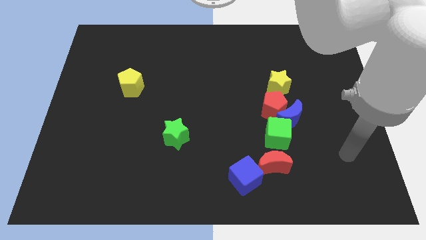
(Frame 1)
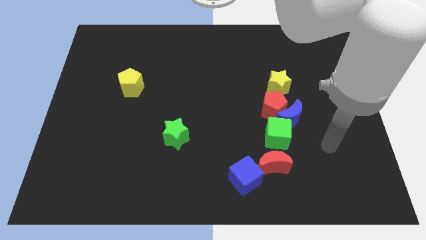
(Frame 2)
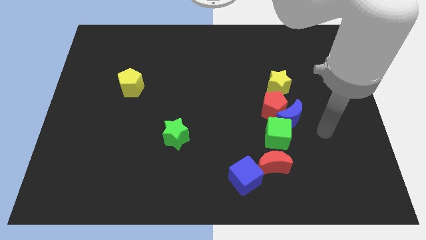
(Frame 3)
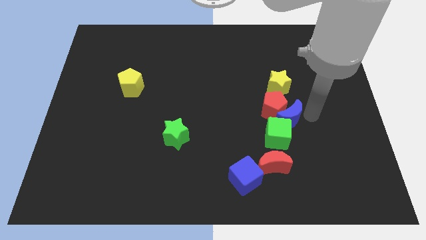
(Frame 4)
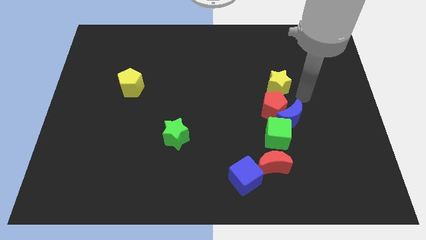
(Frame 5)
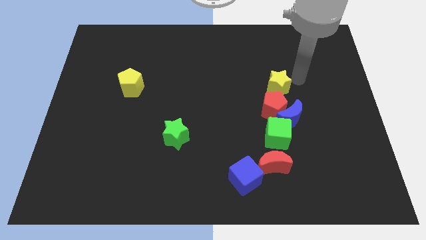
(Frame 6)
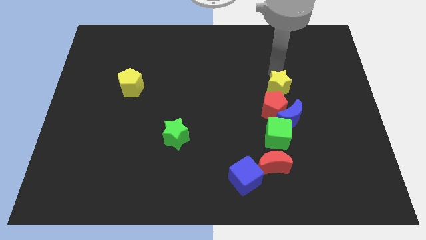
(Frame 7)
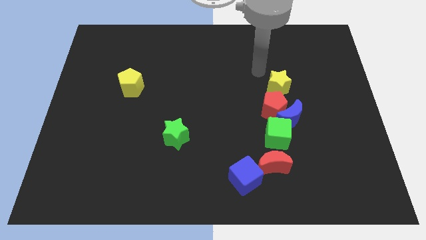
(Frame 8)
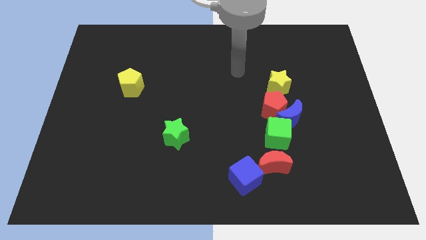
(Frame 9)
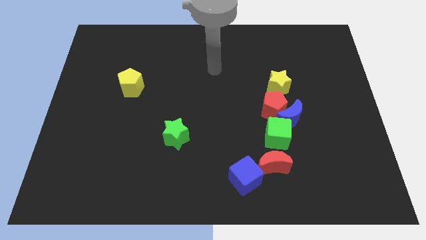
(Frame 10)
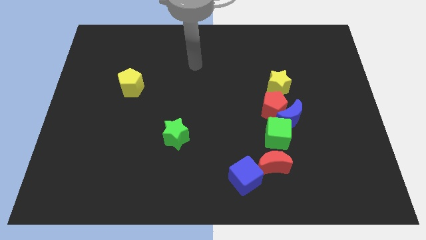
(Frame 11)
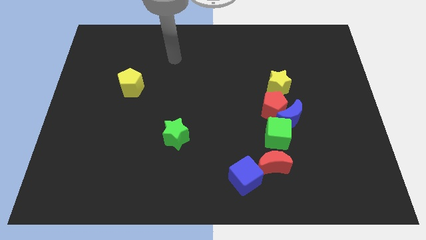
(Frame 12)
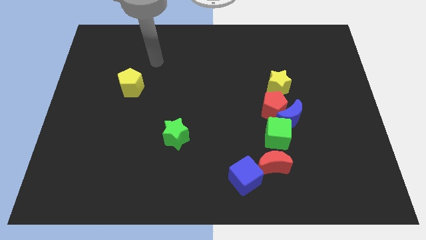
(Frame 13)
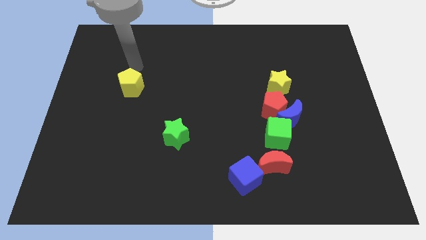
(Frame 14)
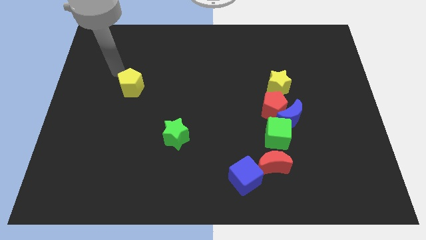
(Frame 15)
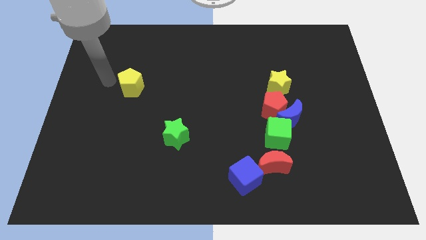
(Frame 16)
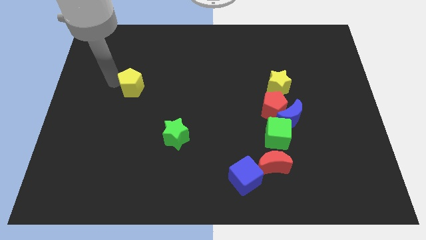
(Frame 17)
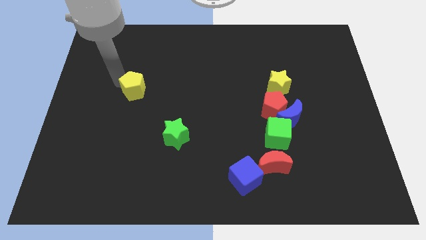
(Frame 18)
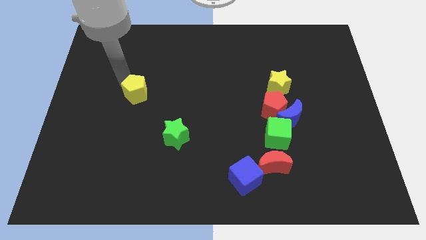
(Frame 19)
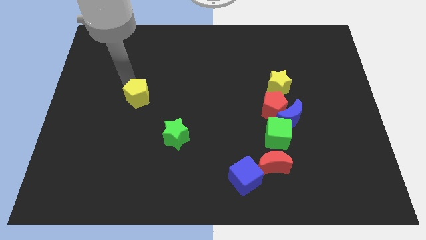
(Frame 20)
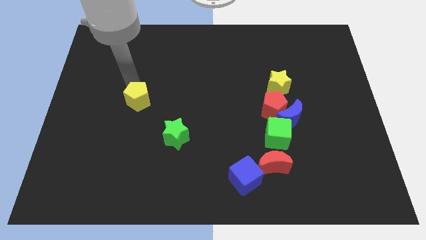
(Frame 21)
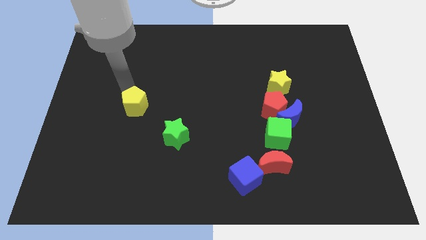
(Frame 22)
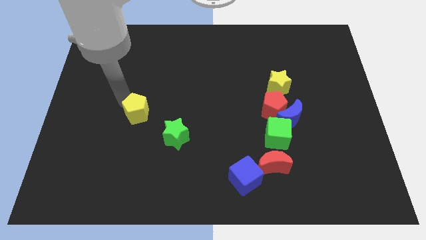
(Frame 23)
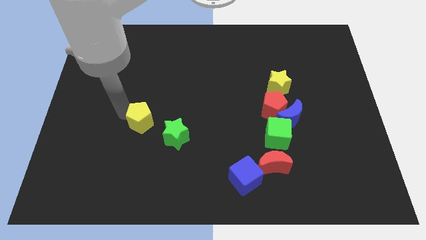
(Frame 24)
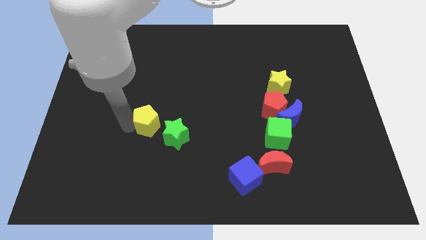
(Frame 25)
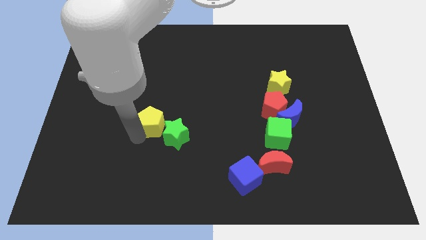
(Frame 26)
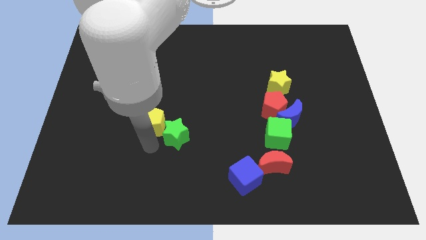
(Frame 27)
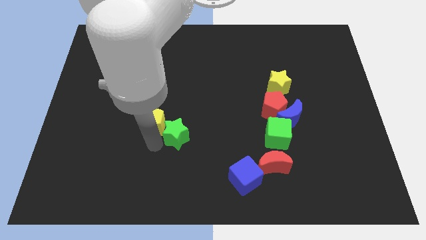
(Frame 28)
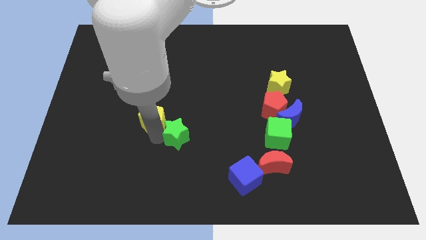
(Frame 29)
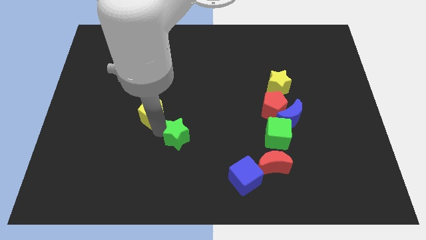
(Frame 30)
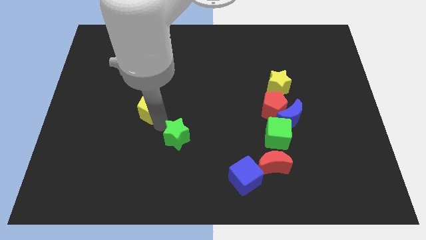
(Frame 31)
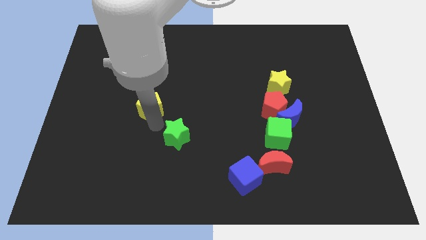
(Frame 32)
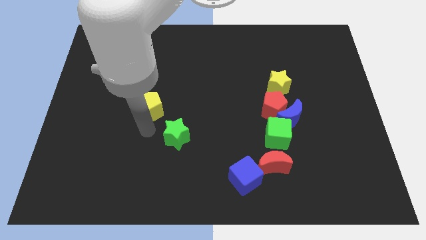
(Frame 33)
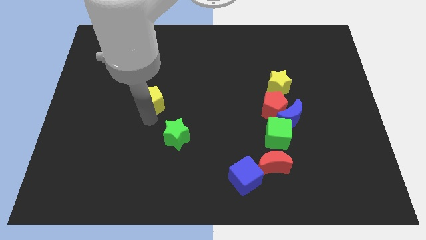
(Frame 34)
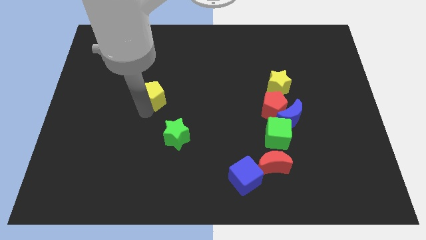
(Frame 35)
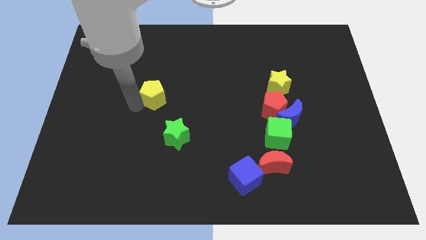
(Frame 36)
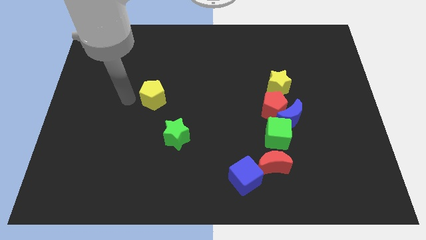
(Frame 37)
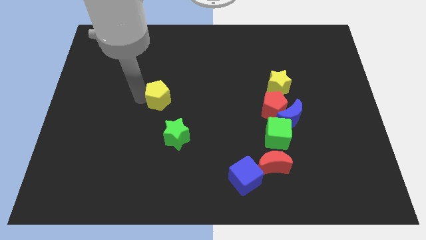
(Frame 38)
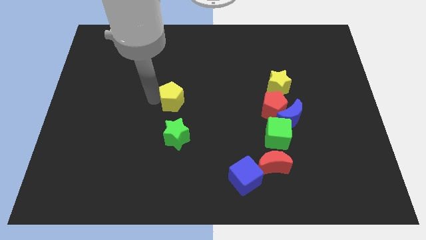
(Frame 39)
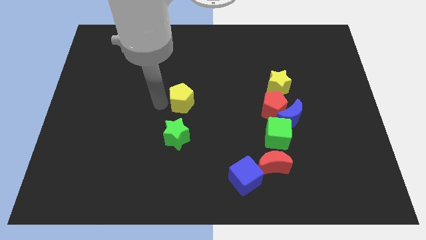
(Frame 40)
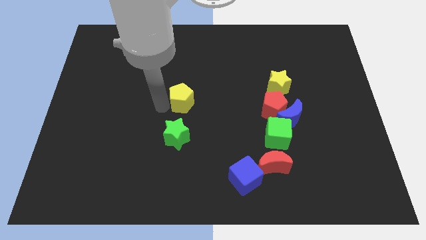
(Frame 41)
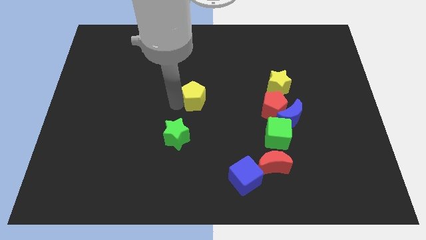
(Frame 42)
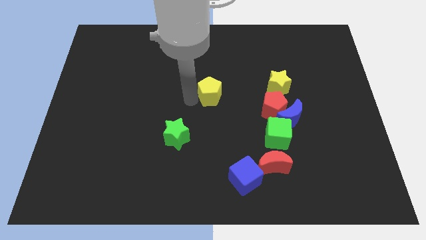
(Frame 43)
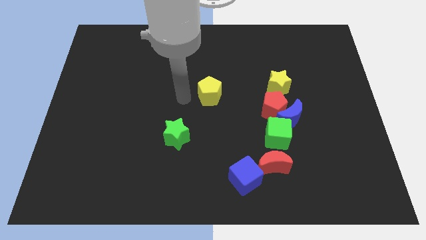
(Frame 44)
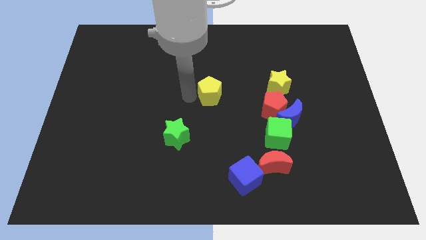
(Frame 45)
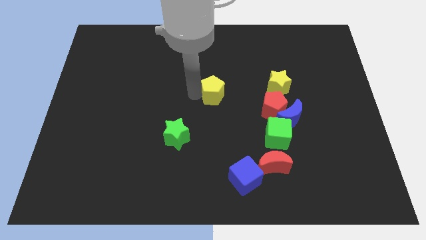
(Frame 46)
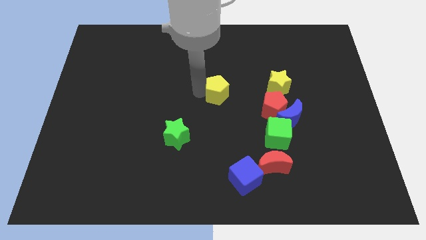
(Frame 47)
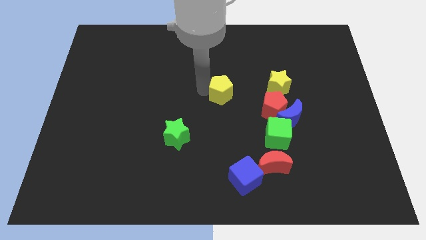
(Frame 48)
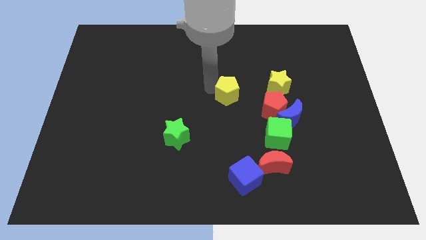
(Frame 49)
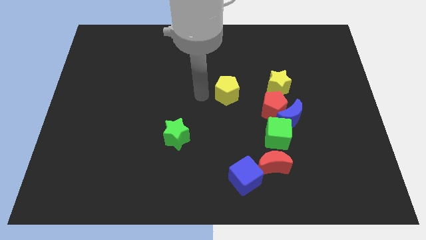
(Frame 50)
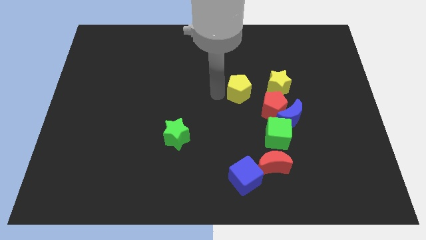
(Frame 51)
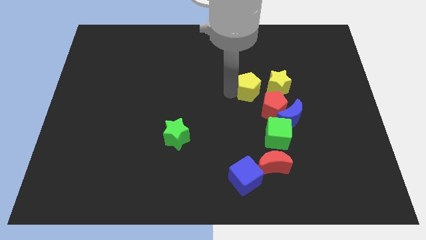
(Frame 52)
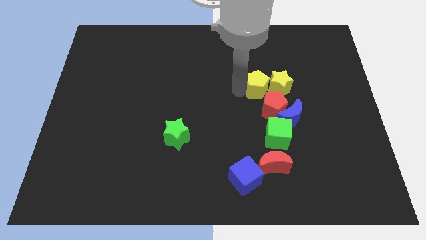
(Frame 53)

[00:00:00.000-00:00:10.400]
put the yellow pentagon next to the yellow star

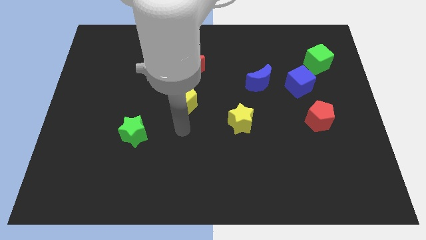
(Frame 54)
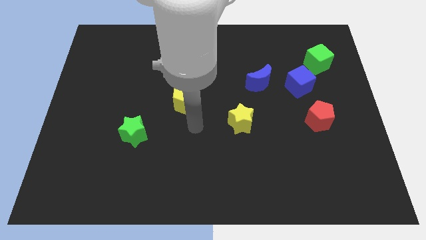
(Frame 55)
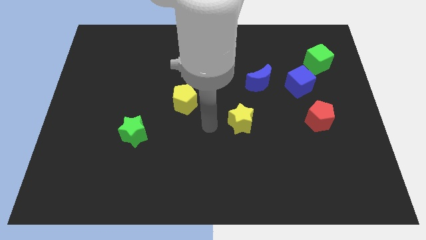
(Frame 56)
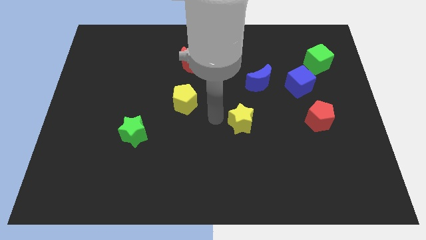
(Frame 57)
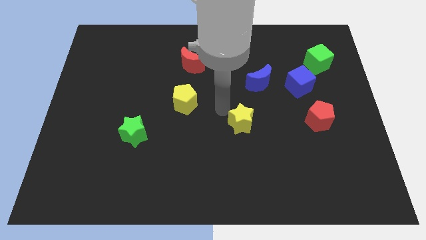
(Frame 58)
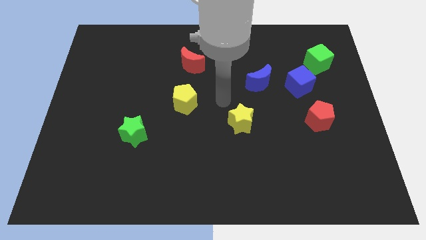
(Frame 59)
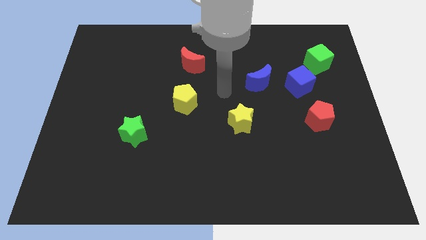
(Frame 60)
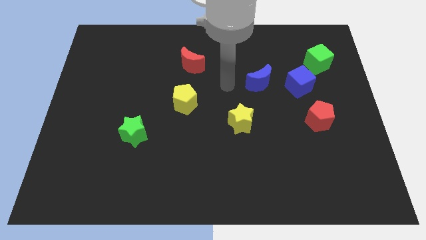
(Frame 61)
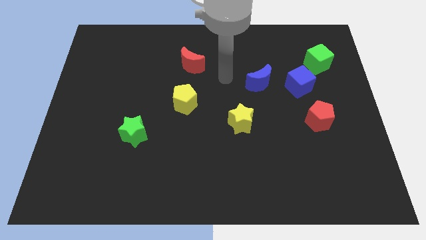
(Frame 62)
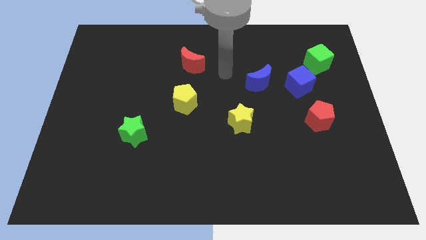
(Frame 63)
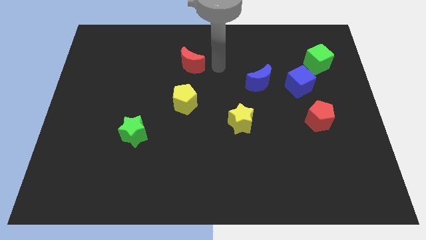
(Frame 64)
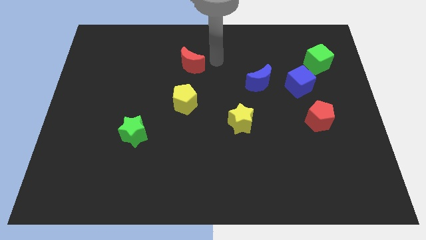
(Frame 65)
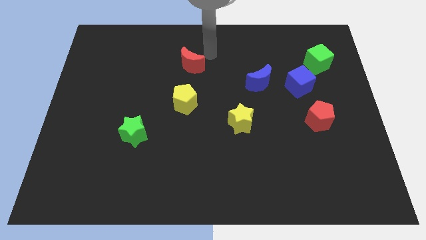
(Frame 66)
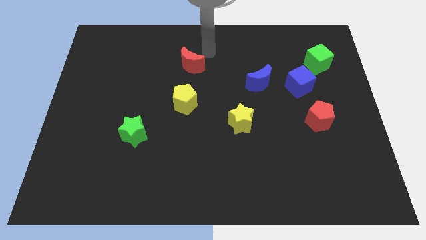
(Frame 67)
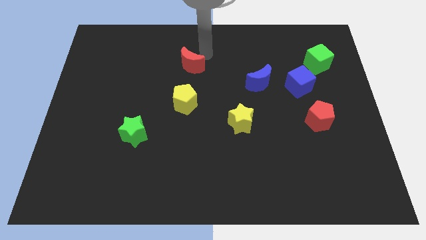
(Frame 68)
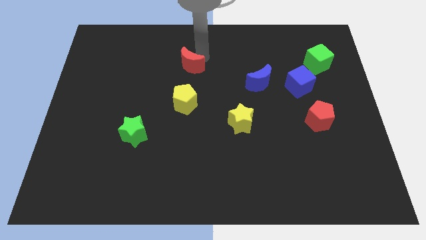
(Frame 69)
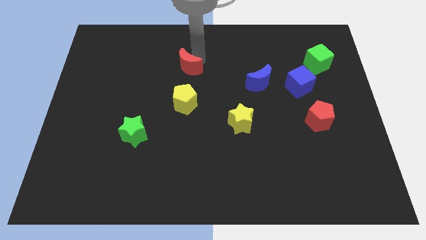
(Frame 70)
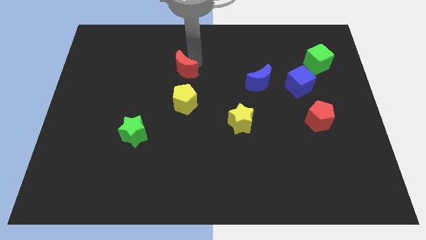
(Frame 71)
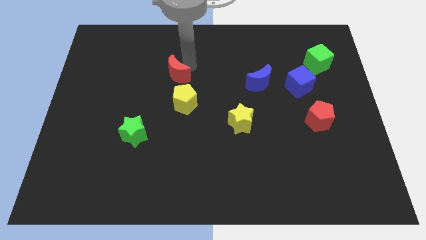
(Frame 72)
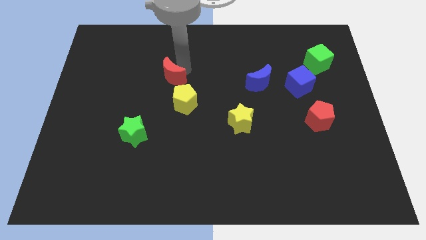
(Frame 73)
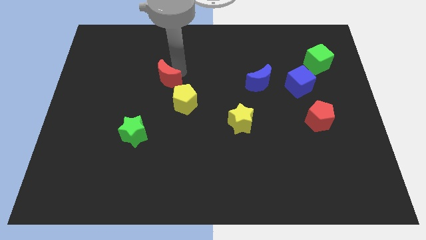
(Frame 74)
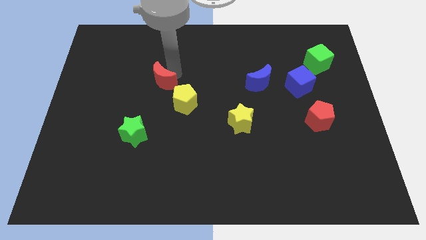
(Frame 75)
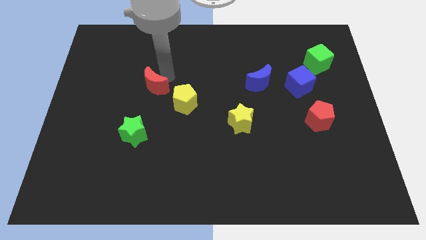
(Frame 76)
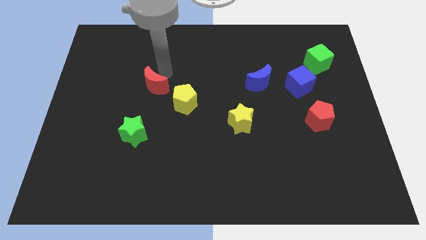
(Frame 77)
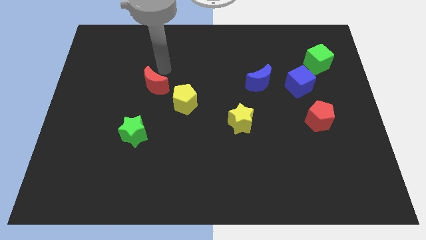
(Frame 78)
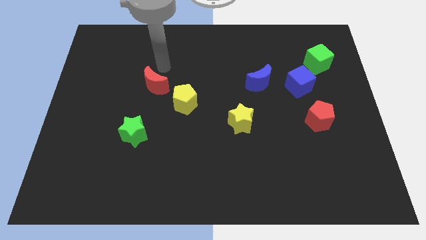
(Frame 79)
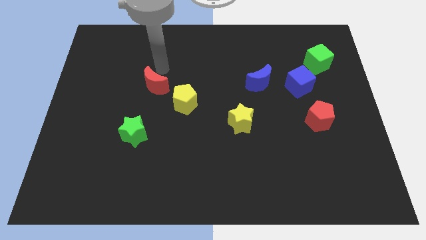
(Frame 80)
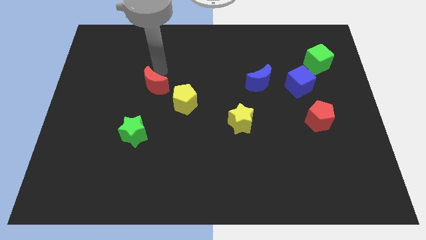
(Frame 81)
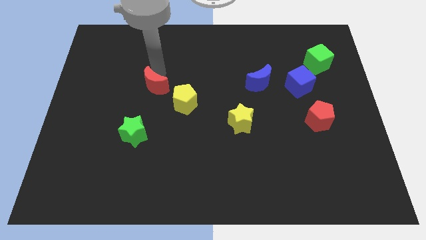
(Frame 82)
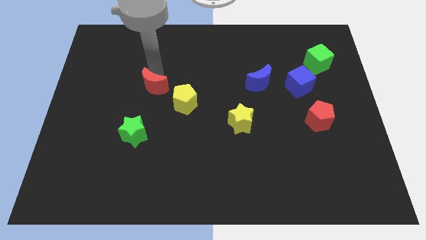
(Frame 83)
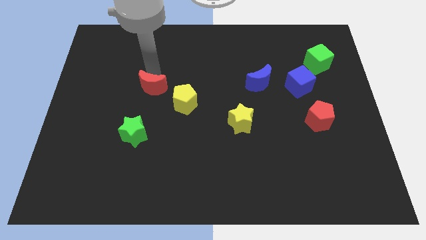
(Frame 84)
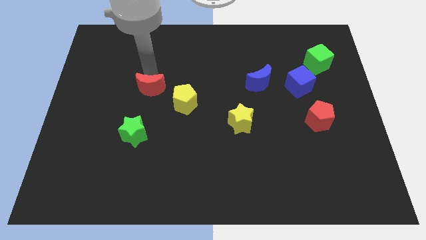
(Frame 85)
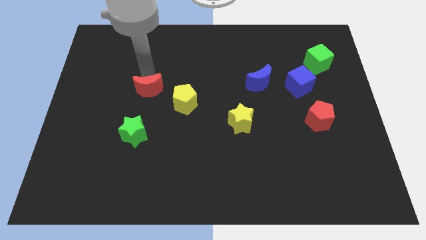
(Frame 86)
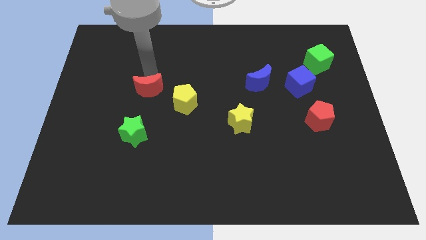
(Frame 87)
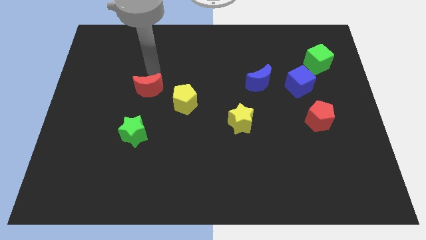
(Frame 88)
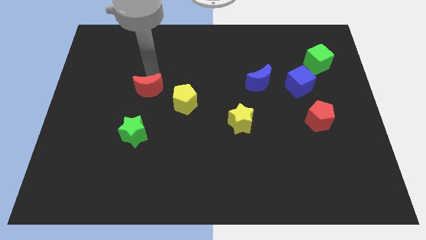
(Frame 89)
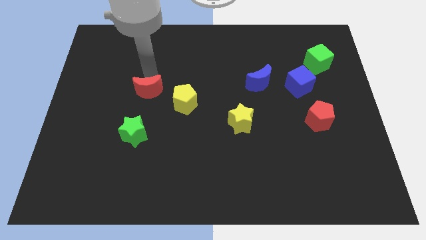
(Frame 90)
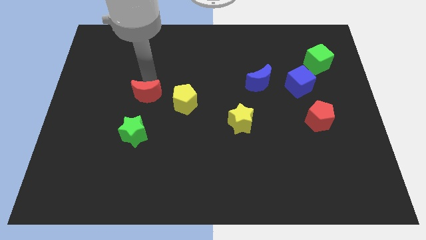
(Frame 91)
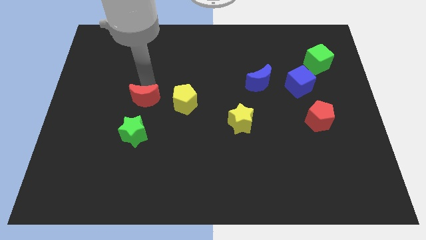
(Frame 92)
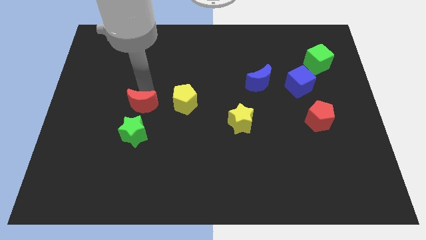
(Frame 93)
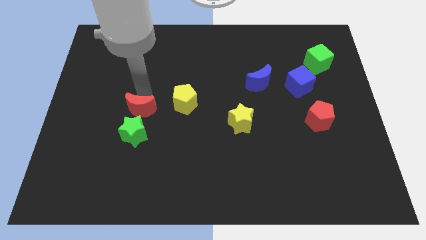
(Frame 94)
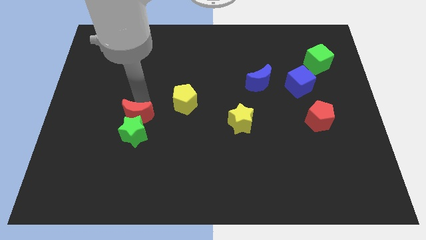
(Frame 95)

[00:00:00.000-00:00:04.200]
put the red moon close to the green star
